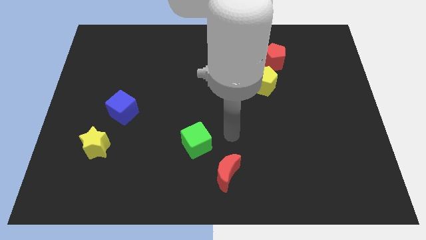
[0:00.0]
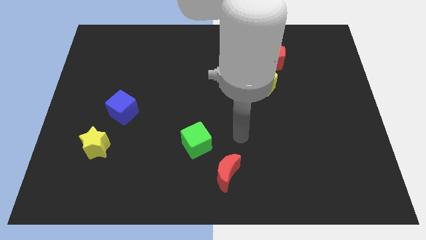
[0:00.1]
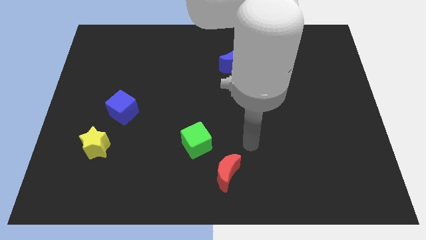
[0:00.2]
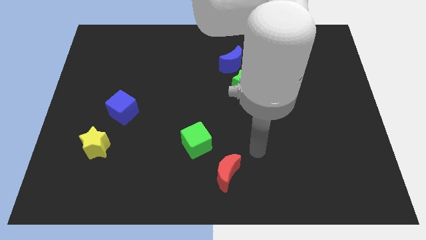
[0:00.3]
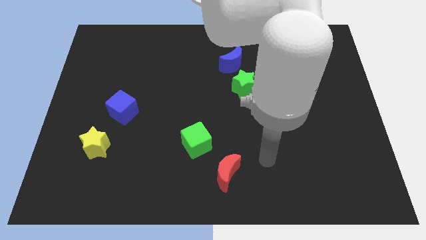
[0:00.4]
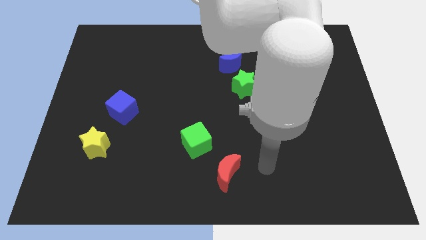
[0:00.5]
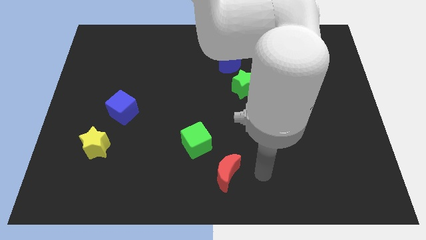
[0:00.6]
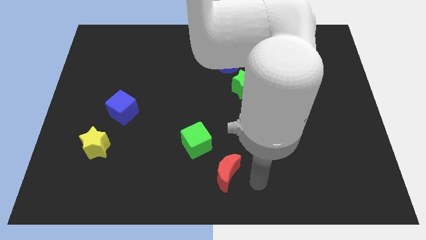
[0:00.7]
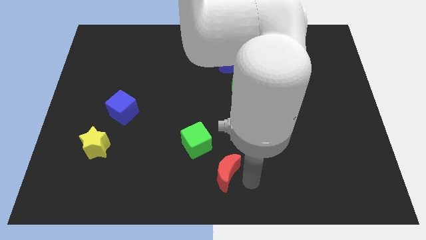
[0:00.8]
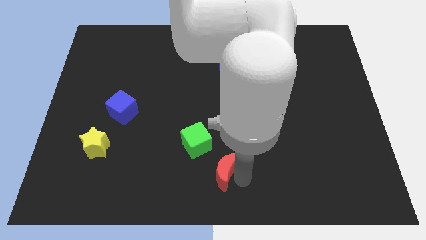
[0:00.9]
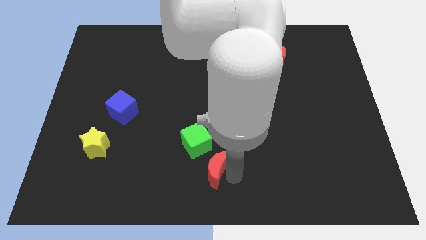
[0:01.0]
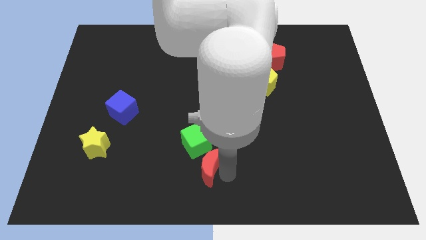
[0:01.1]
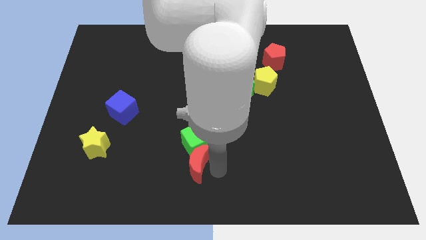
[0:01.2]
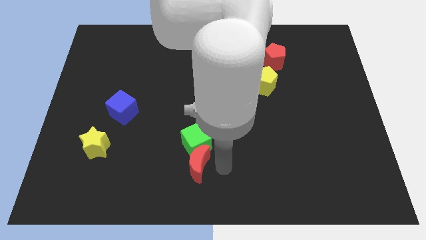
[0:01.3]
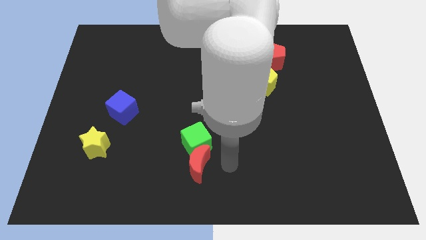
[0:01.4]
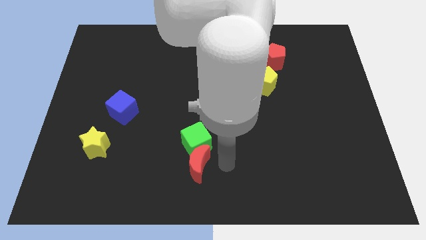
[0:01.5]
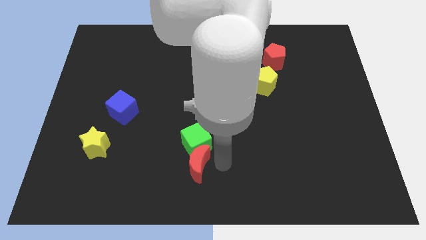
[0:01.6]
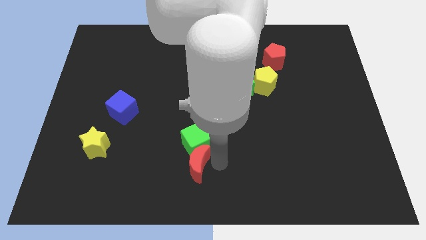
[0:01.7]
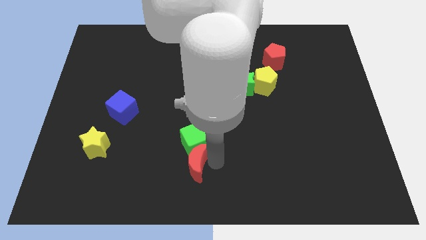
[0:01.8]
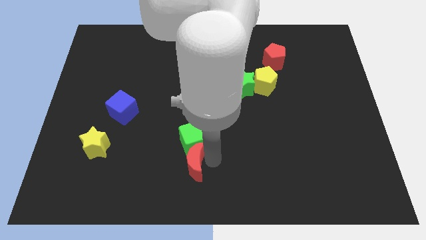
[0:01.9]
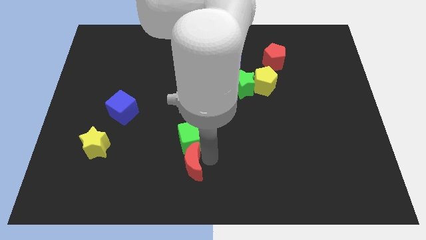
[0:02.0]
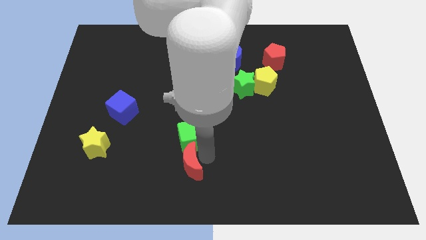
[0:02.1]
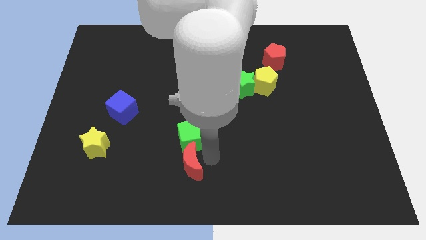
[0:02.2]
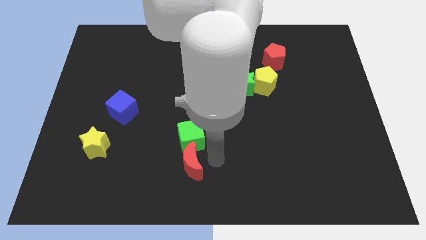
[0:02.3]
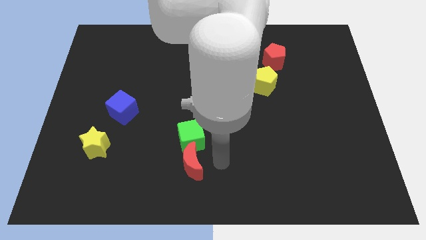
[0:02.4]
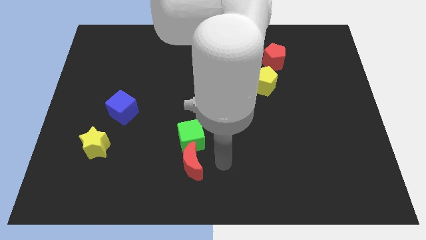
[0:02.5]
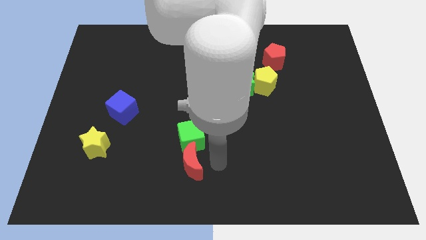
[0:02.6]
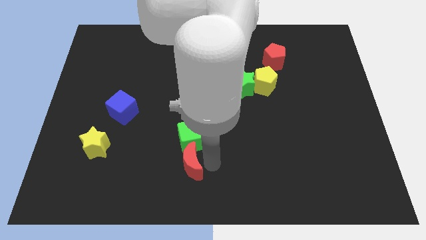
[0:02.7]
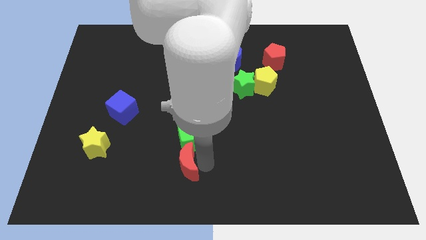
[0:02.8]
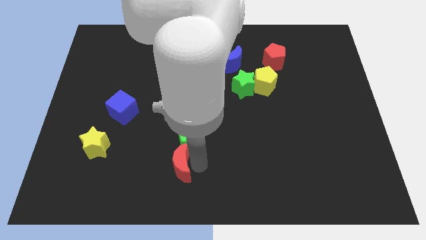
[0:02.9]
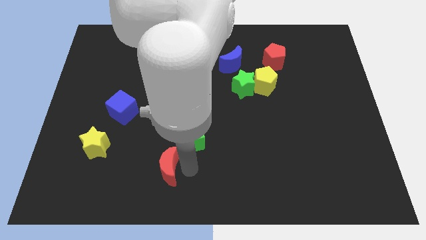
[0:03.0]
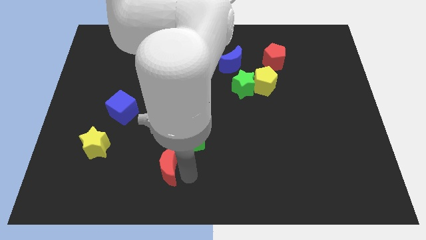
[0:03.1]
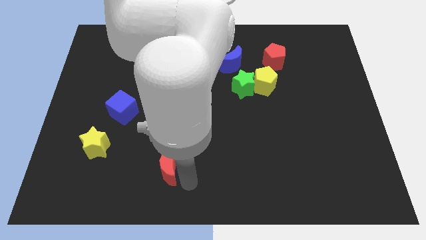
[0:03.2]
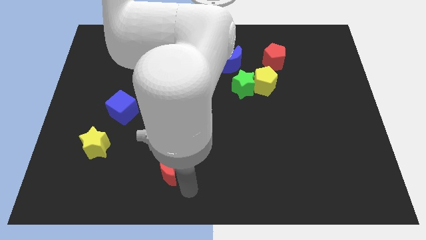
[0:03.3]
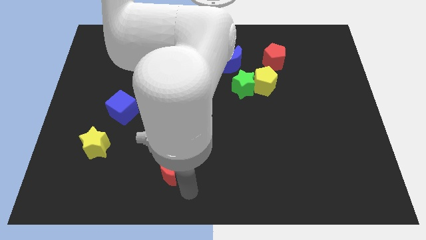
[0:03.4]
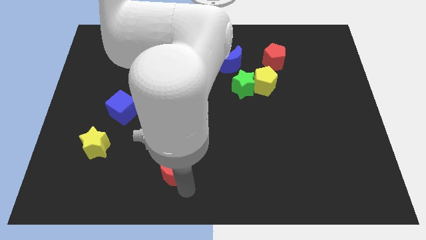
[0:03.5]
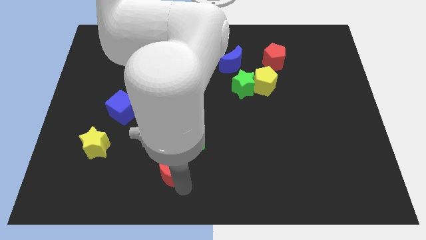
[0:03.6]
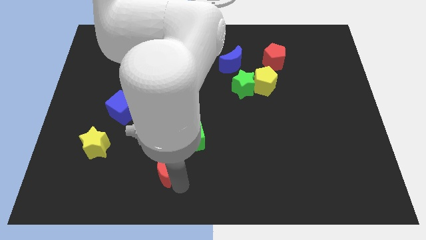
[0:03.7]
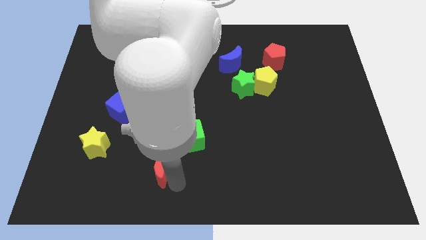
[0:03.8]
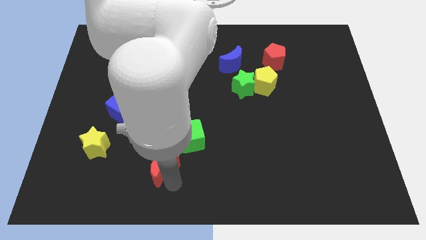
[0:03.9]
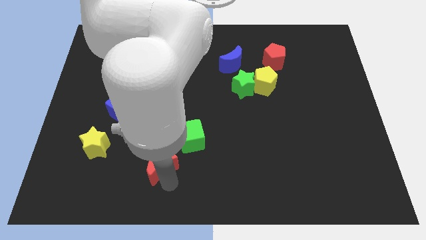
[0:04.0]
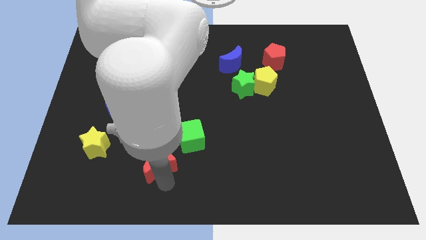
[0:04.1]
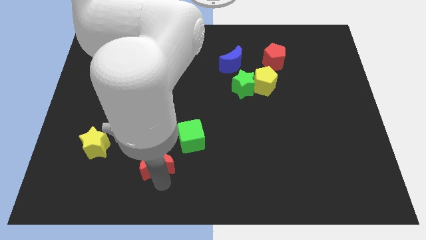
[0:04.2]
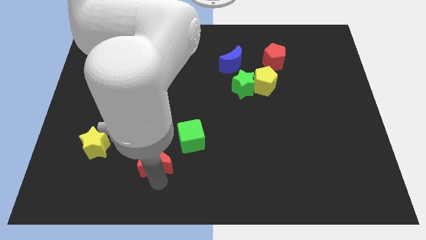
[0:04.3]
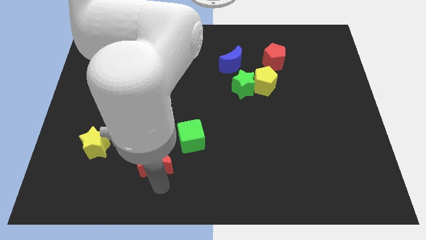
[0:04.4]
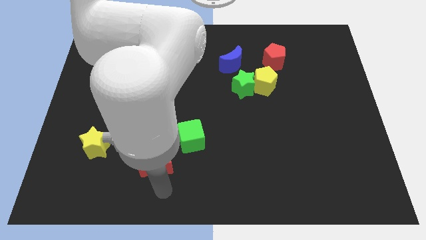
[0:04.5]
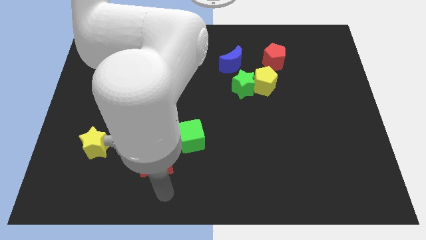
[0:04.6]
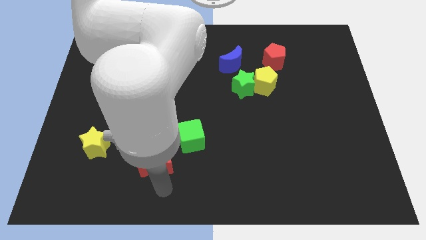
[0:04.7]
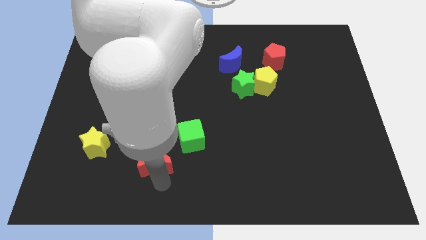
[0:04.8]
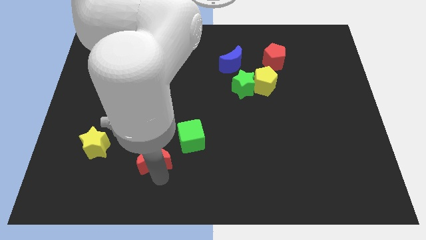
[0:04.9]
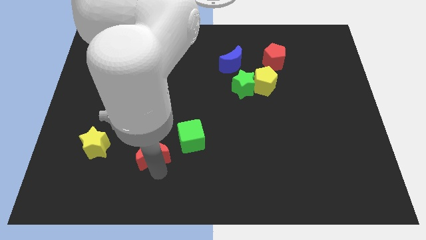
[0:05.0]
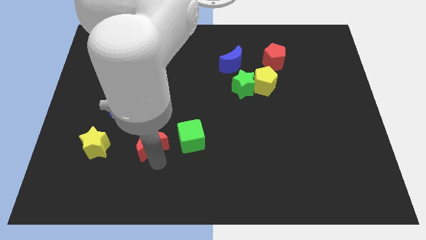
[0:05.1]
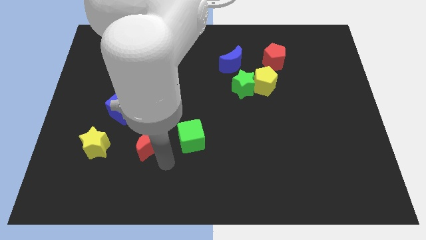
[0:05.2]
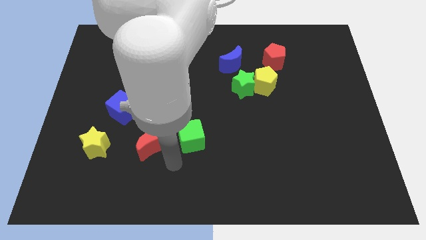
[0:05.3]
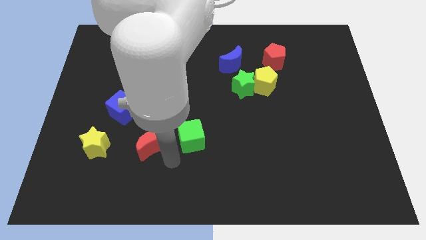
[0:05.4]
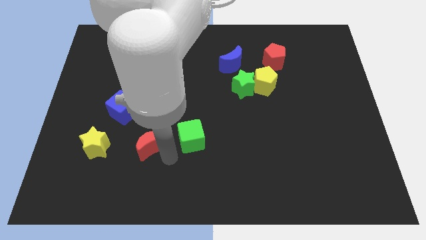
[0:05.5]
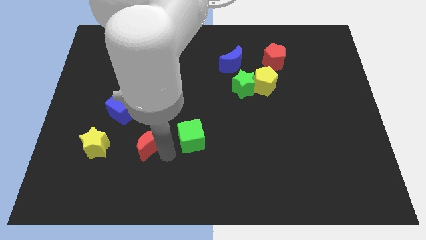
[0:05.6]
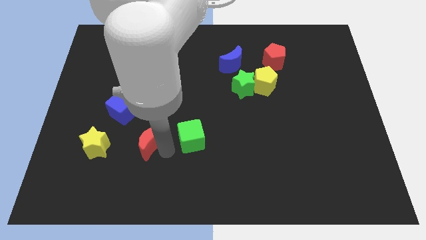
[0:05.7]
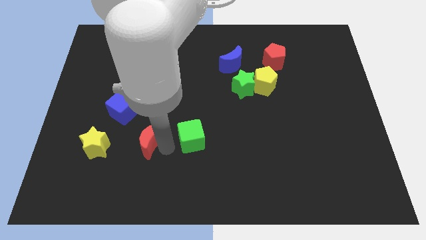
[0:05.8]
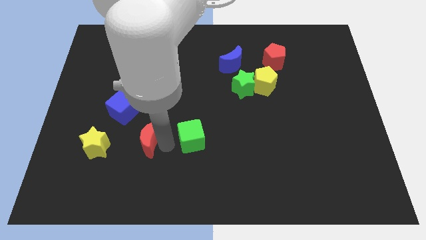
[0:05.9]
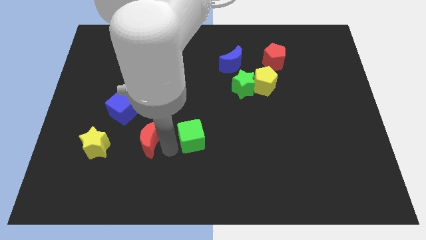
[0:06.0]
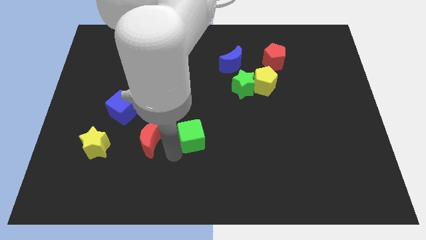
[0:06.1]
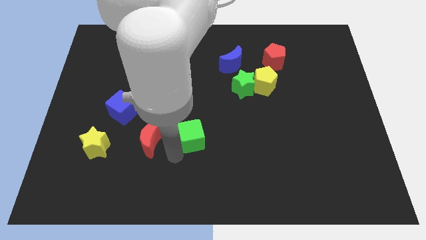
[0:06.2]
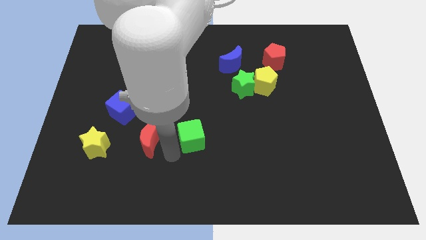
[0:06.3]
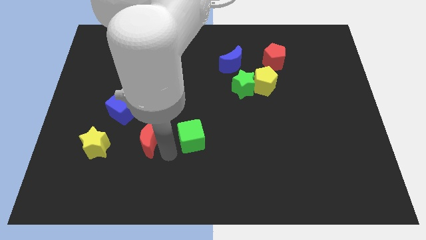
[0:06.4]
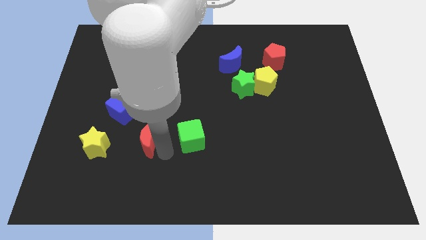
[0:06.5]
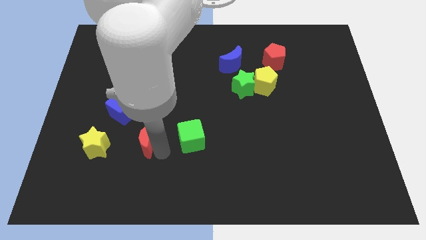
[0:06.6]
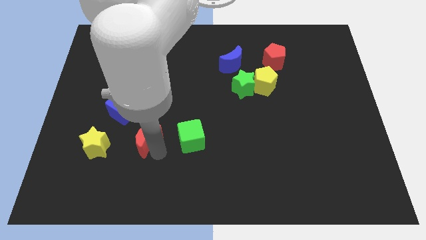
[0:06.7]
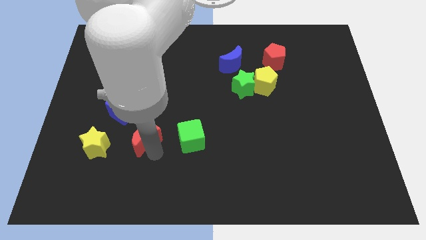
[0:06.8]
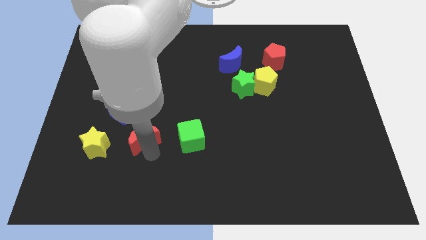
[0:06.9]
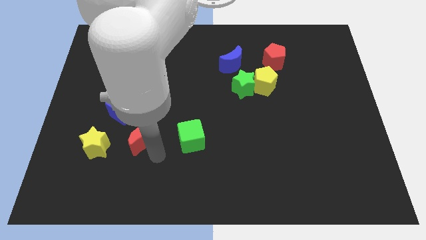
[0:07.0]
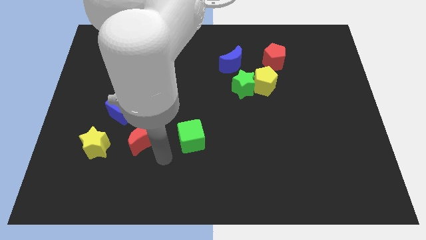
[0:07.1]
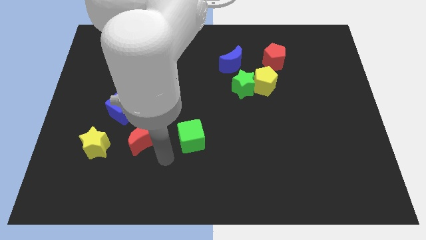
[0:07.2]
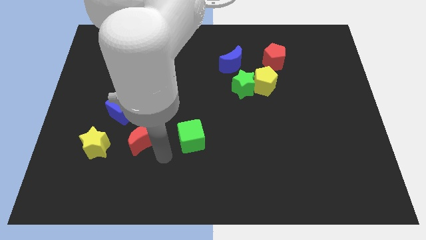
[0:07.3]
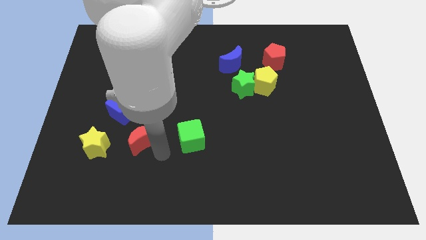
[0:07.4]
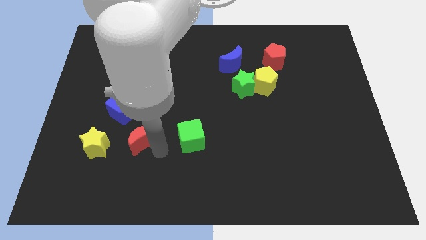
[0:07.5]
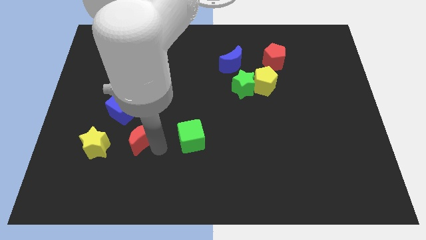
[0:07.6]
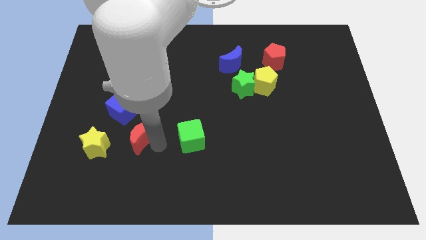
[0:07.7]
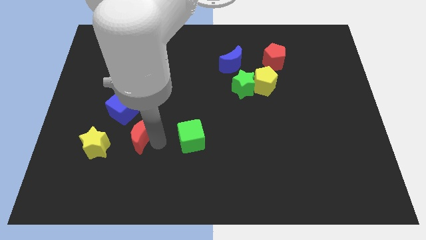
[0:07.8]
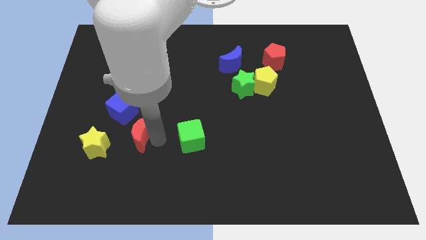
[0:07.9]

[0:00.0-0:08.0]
move the red moon to the top right side of the yellow star
